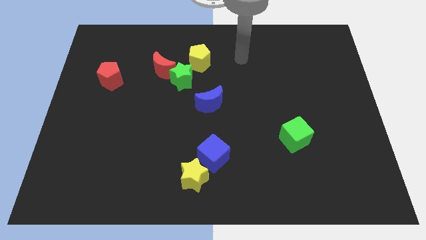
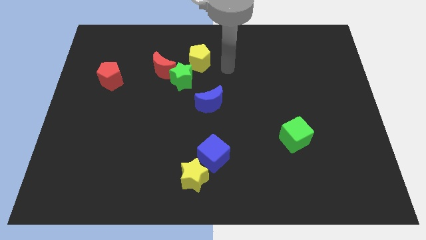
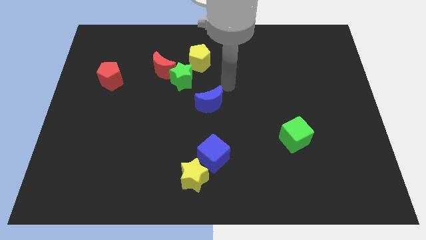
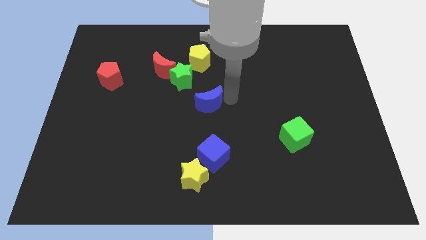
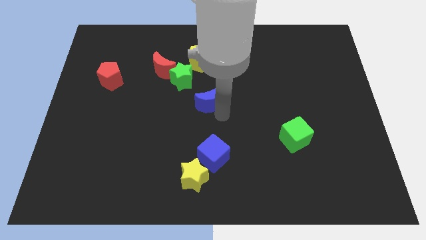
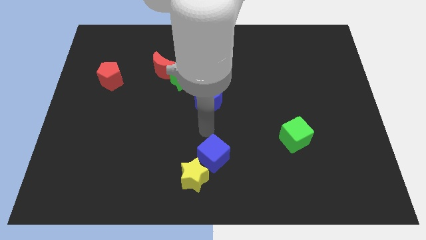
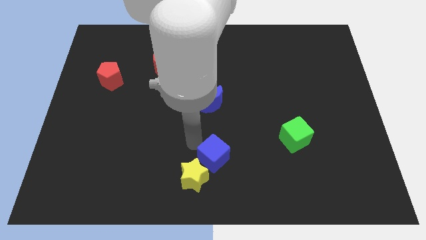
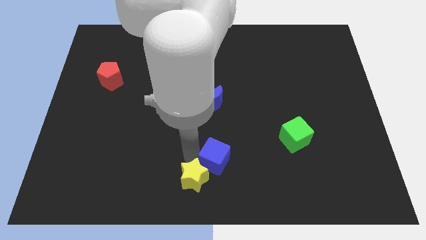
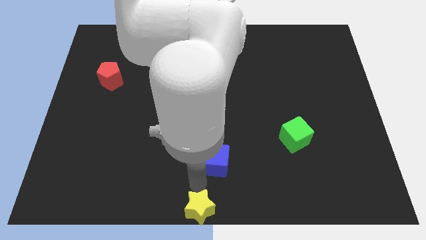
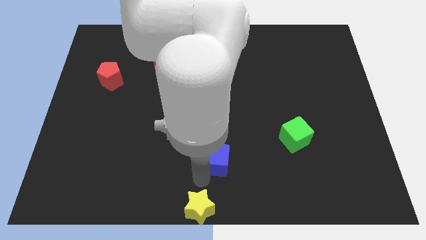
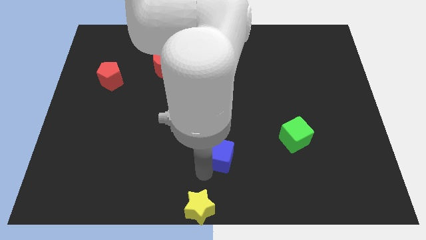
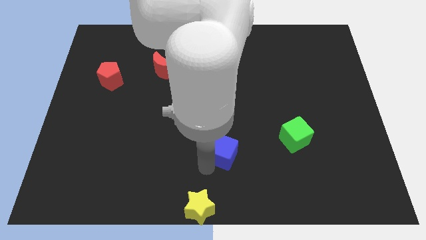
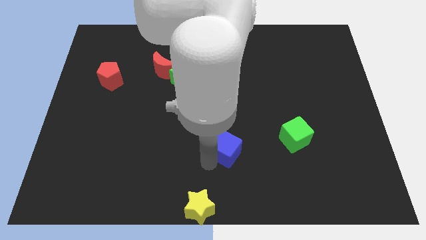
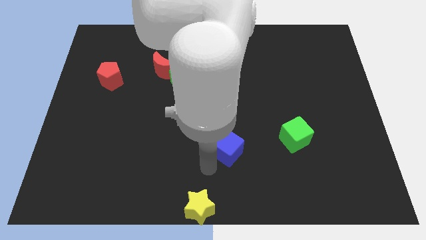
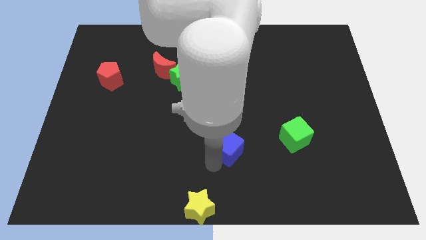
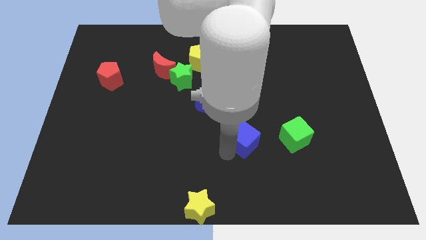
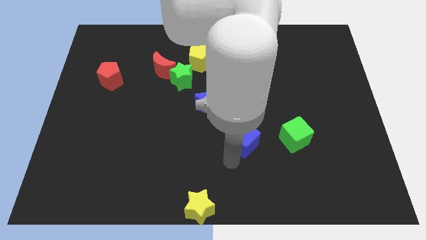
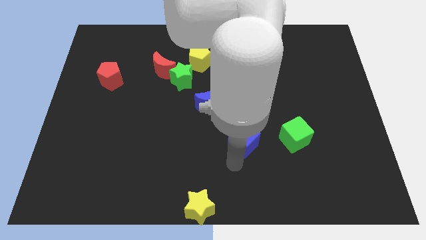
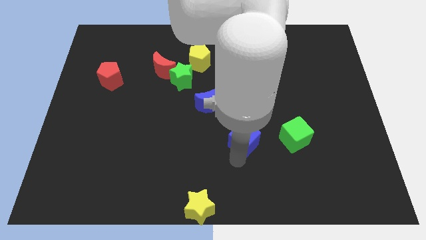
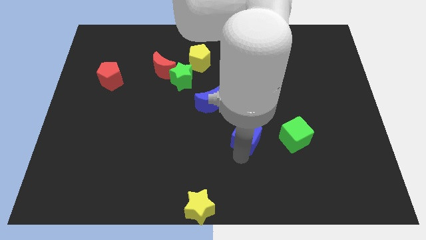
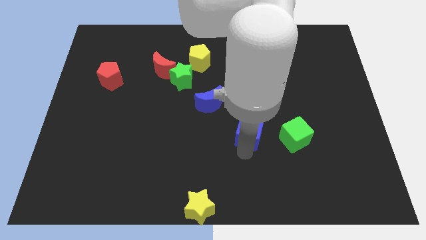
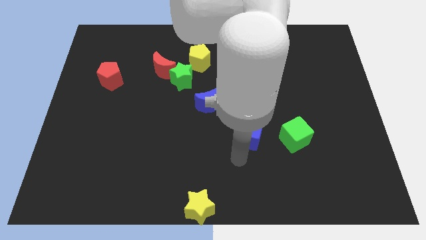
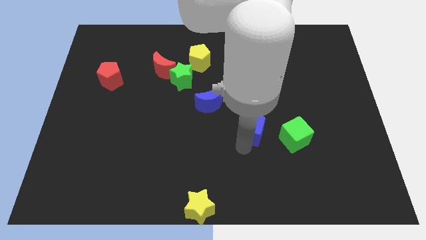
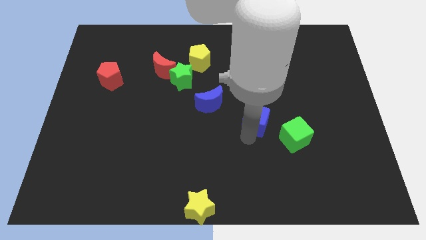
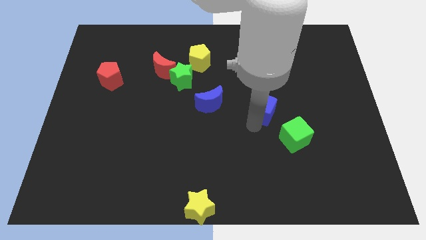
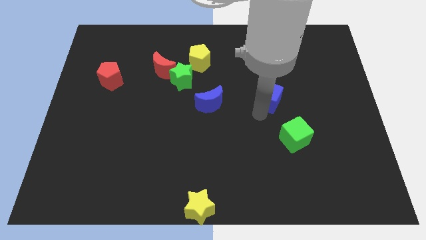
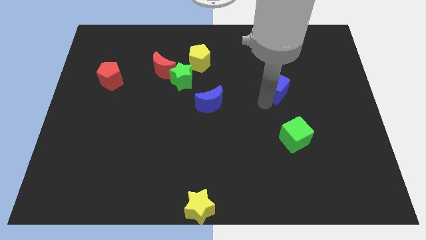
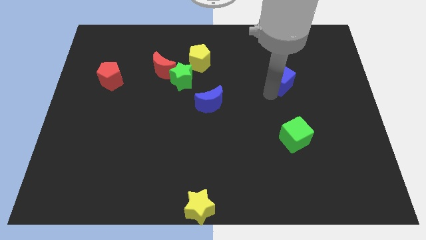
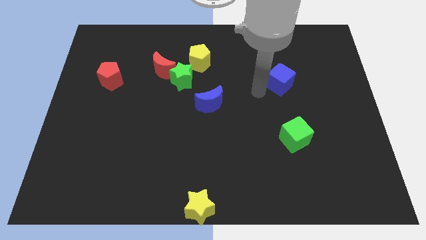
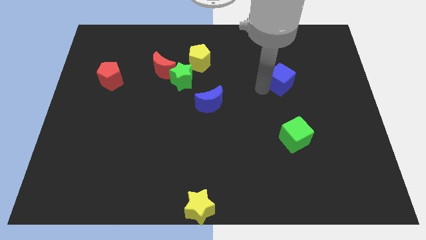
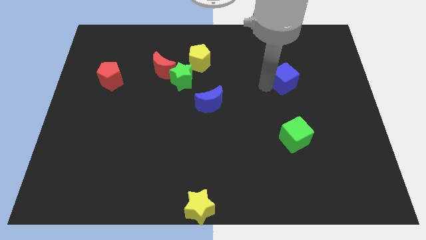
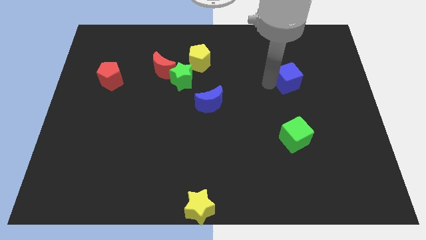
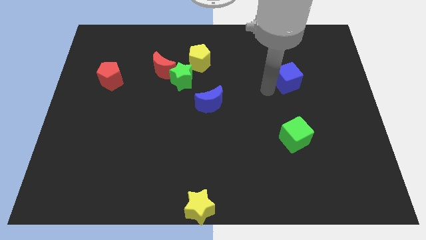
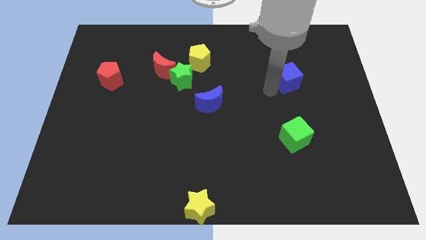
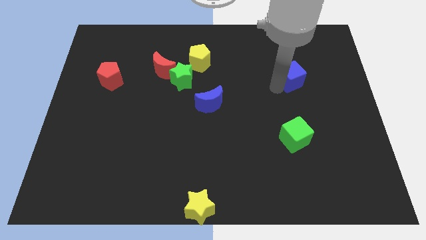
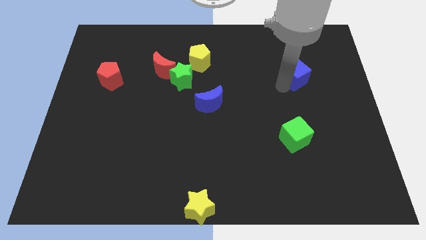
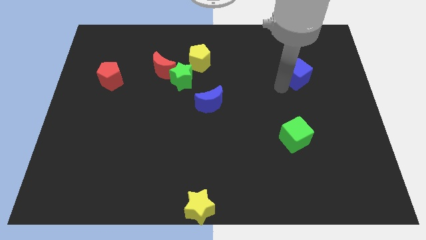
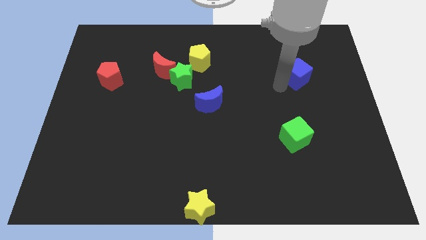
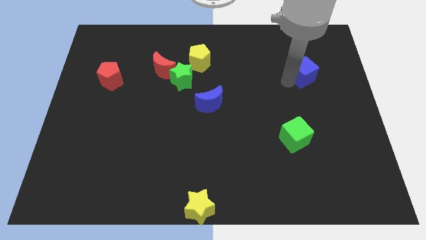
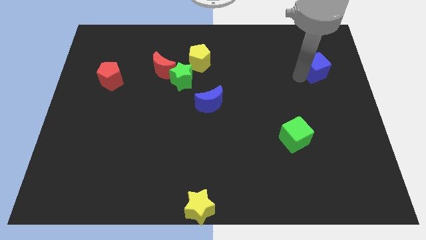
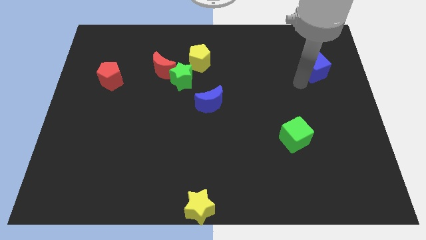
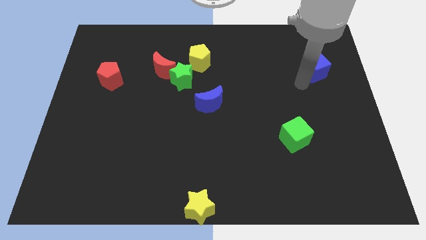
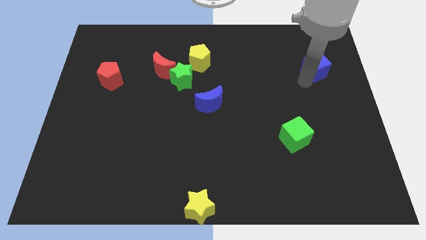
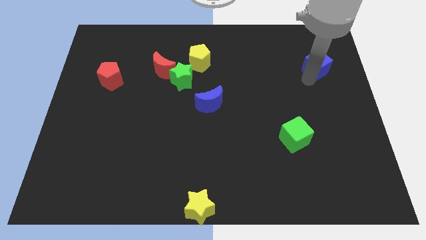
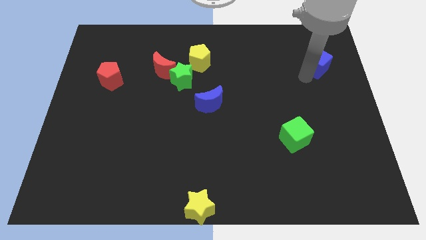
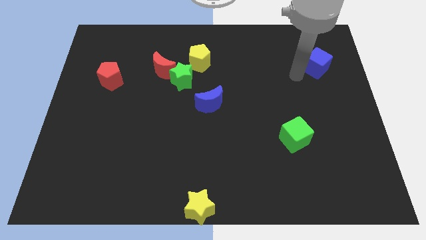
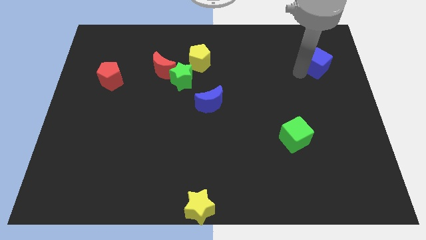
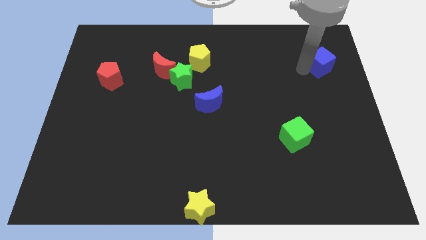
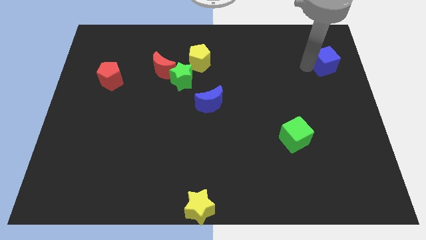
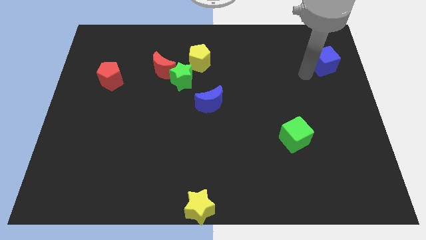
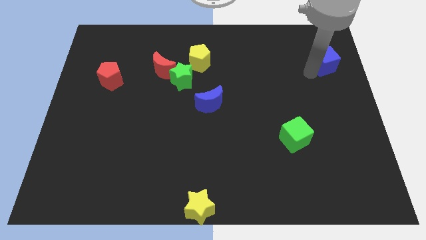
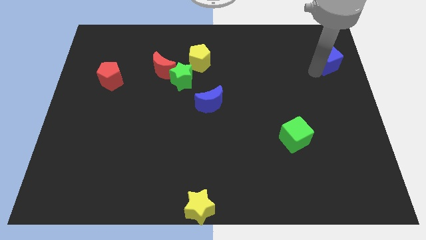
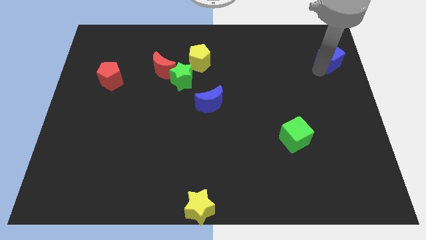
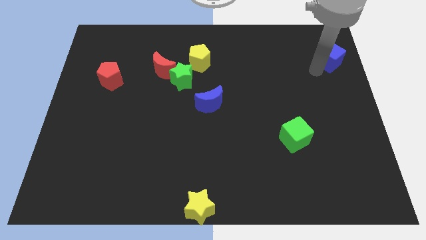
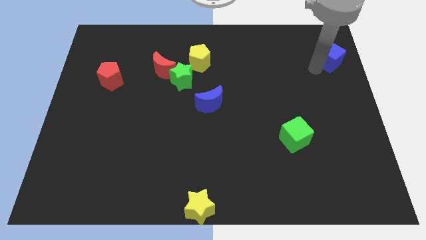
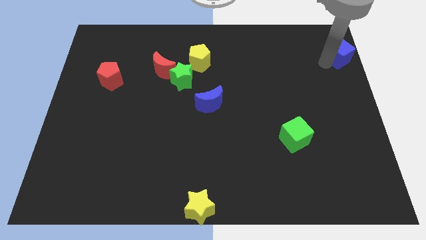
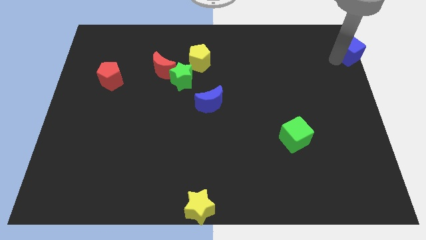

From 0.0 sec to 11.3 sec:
put the blue cube to the top right of the board

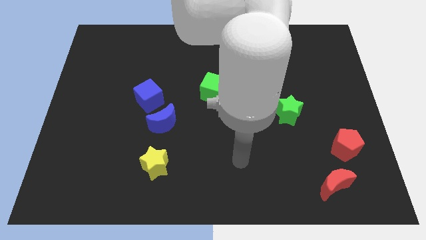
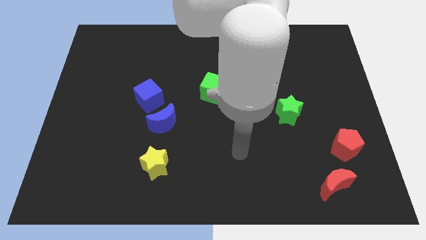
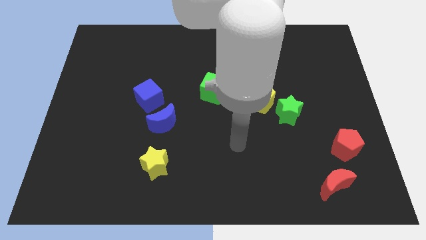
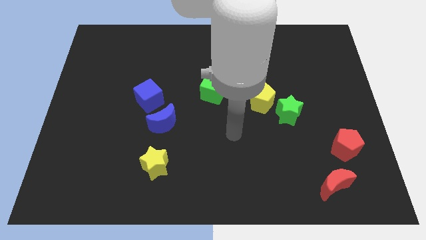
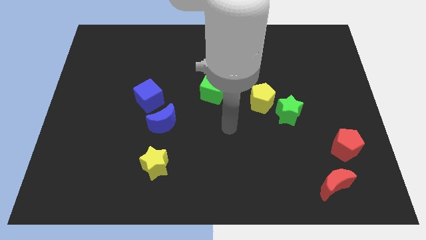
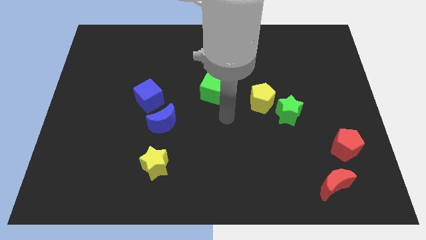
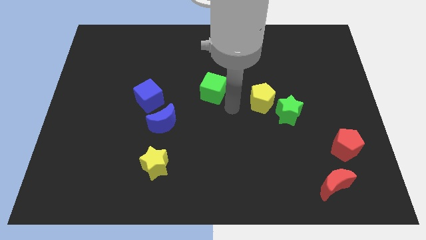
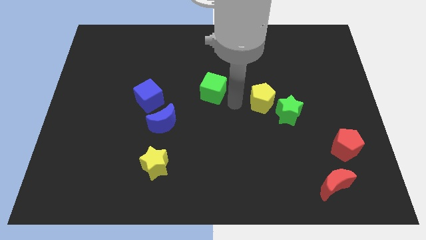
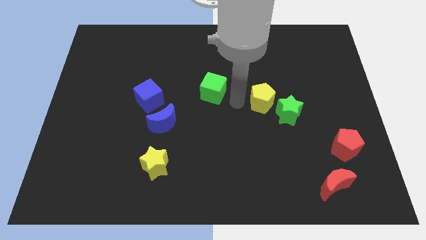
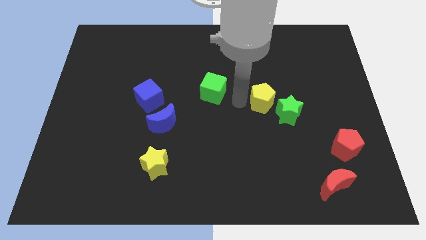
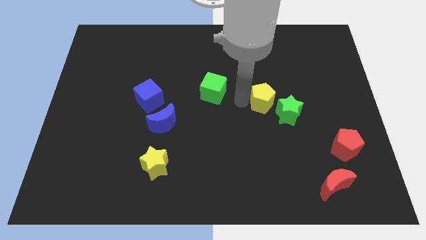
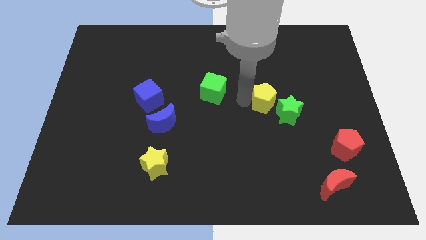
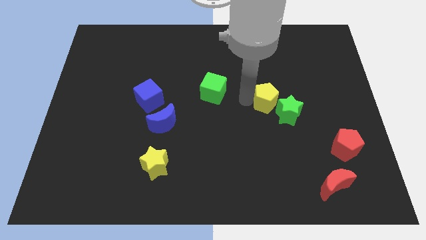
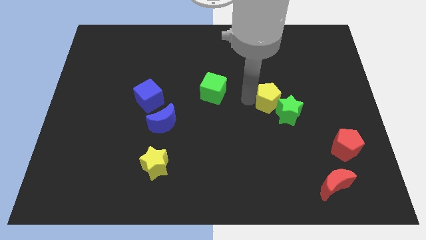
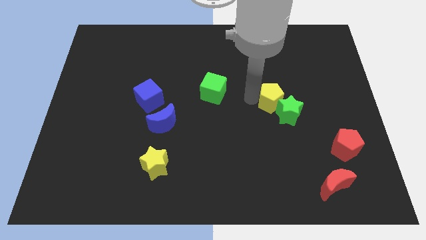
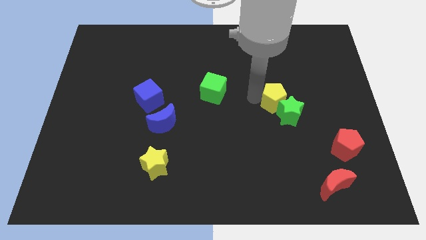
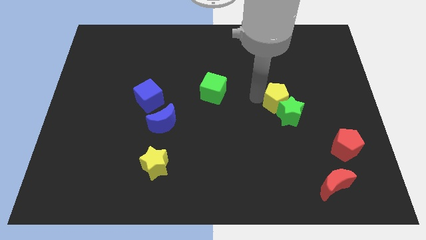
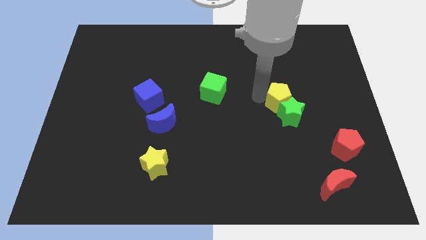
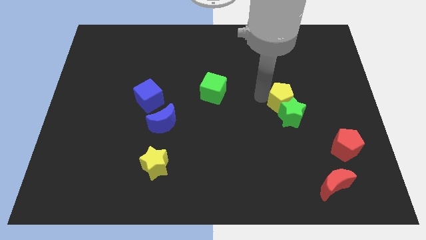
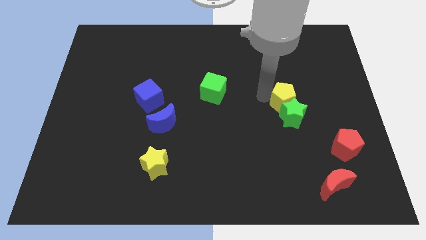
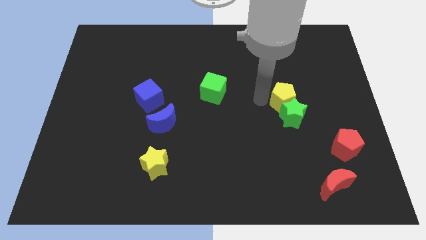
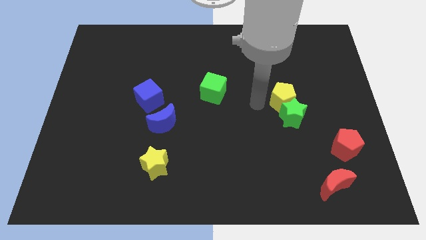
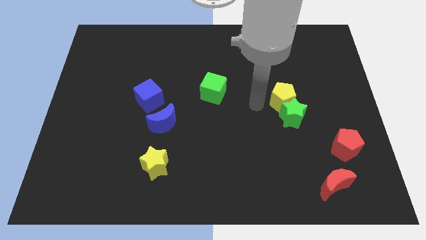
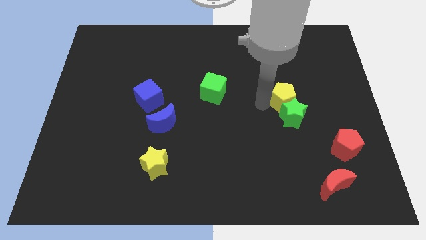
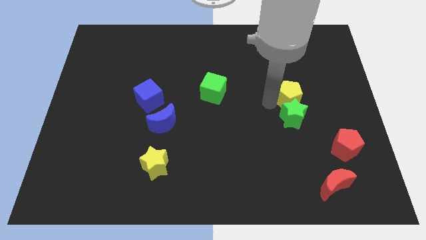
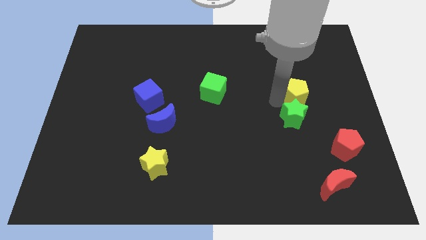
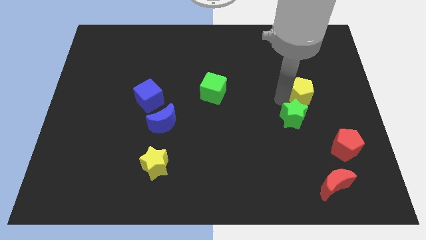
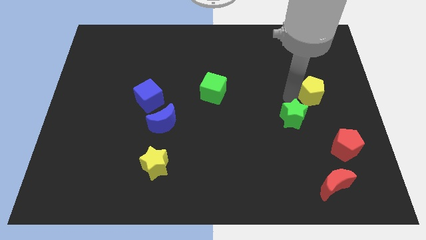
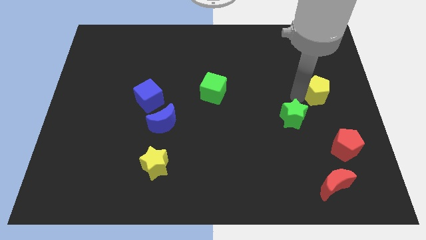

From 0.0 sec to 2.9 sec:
push the yellow pentagon to the center right
